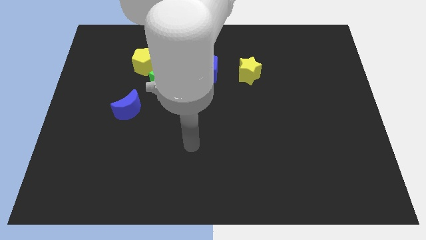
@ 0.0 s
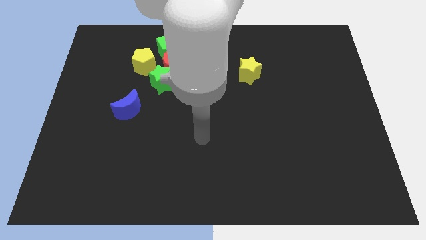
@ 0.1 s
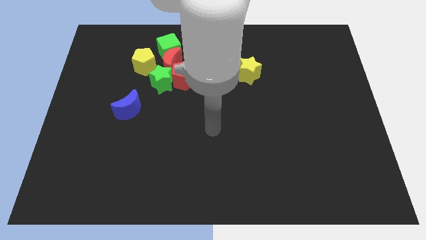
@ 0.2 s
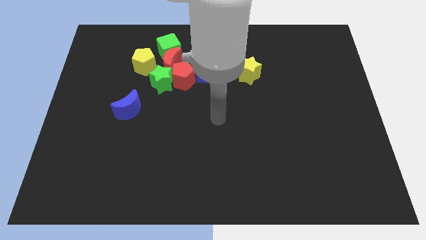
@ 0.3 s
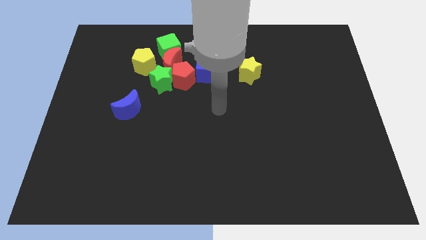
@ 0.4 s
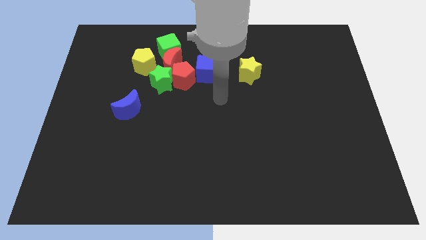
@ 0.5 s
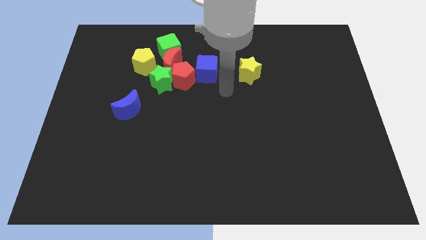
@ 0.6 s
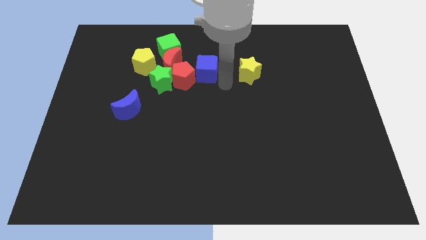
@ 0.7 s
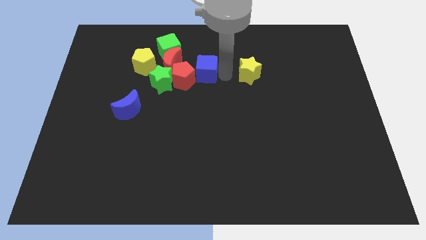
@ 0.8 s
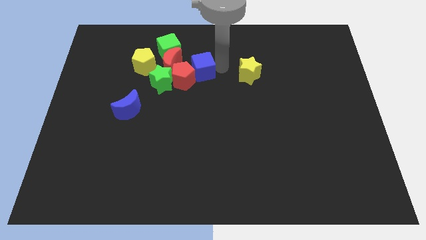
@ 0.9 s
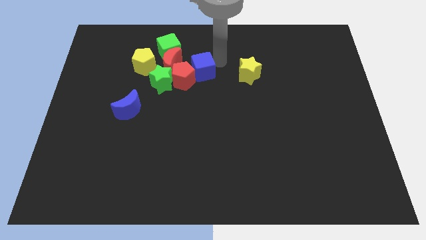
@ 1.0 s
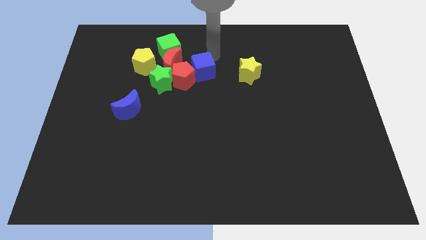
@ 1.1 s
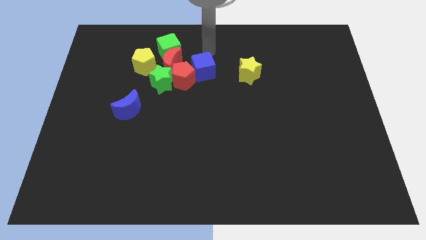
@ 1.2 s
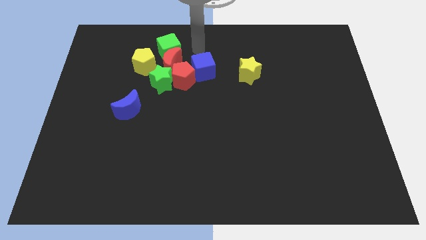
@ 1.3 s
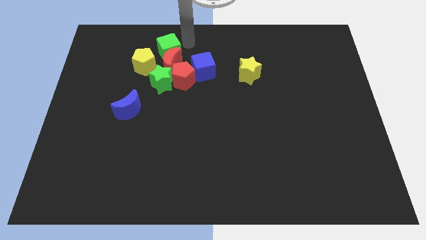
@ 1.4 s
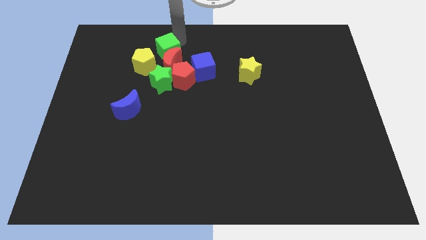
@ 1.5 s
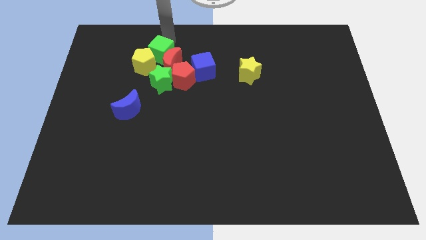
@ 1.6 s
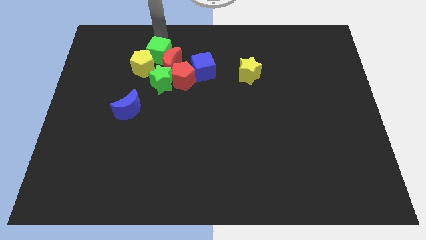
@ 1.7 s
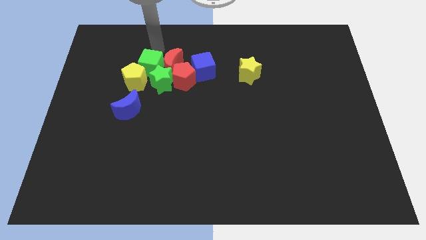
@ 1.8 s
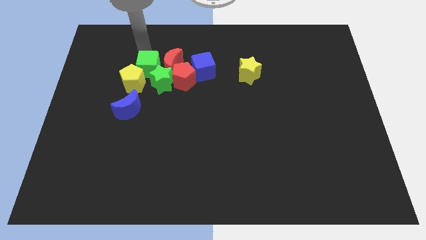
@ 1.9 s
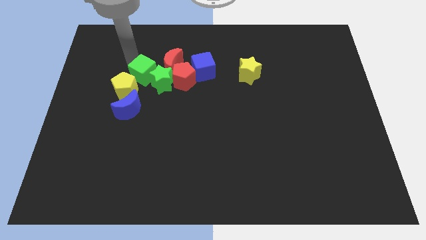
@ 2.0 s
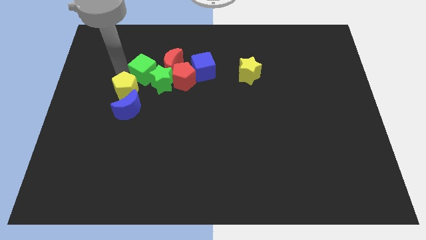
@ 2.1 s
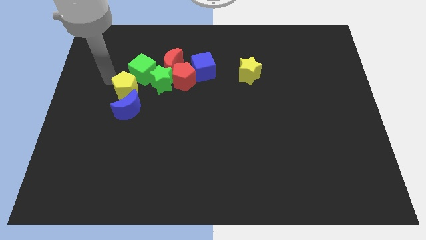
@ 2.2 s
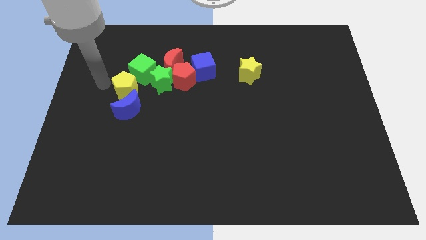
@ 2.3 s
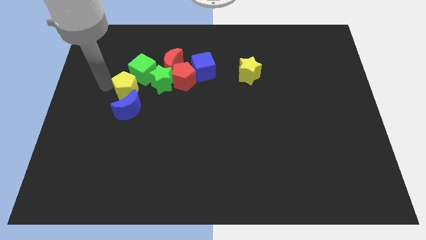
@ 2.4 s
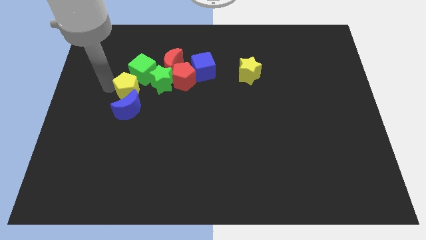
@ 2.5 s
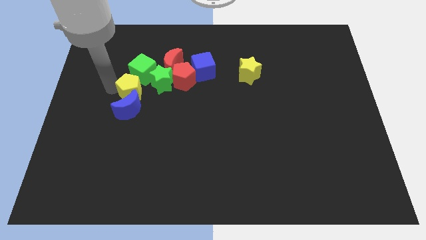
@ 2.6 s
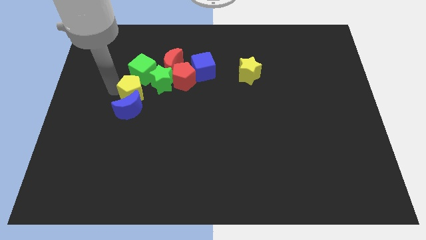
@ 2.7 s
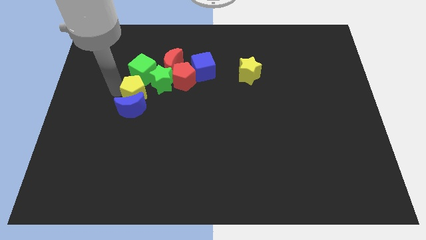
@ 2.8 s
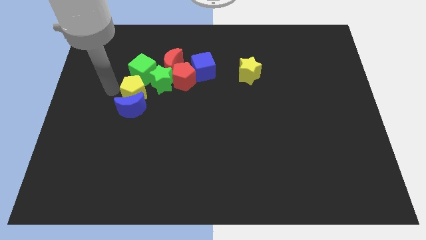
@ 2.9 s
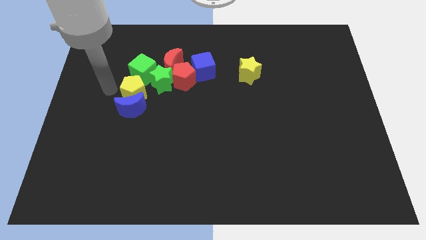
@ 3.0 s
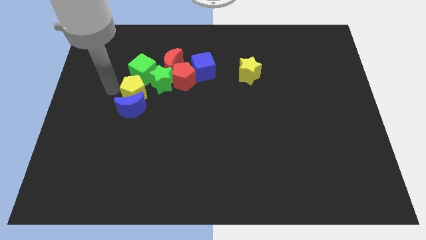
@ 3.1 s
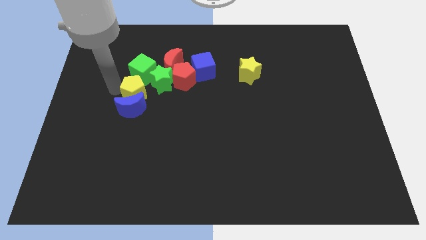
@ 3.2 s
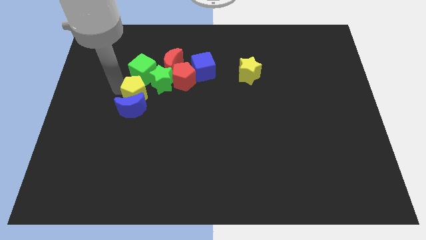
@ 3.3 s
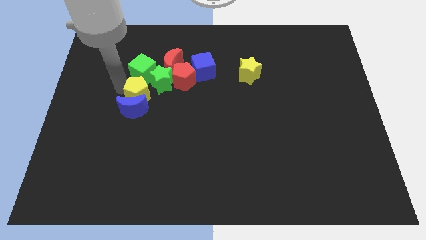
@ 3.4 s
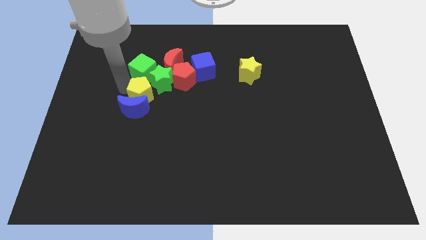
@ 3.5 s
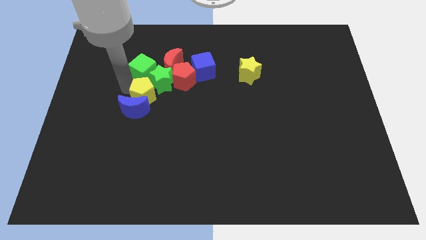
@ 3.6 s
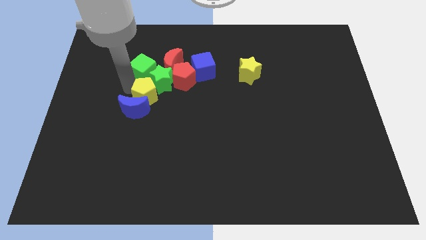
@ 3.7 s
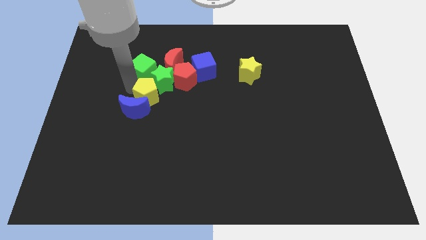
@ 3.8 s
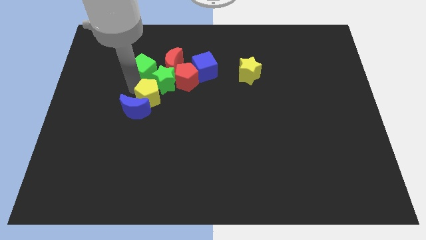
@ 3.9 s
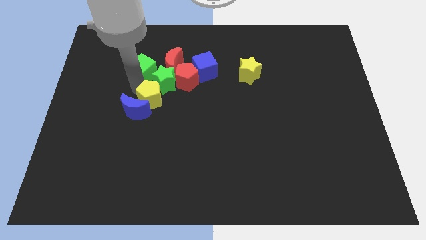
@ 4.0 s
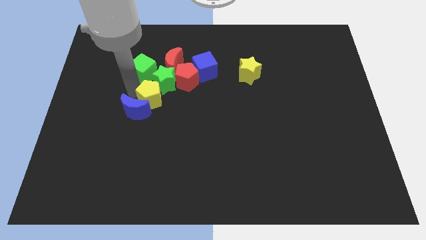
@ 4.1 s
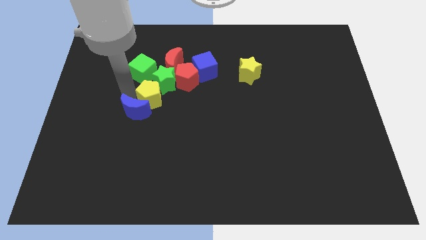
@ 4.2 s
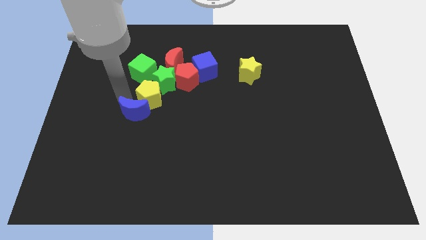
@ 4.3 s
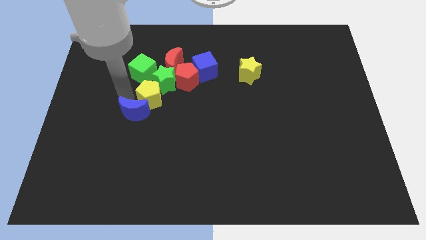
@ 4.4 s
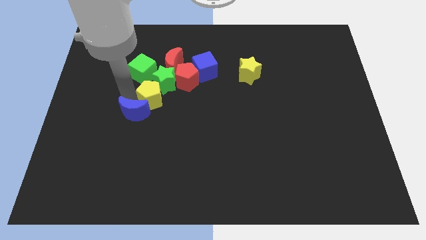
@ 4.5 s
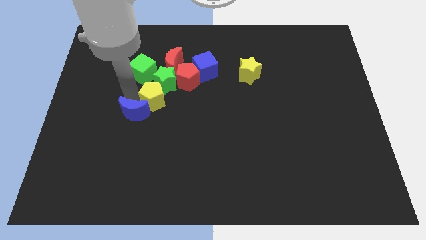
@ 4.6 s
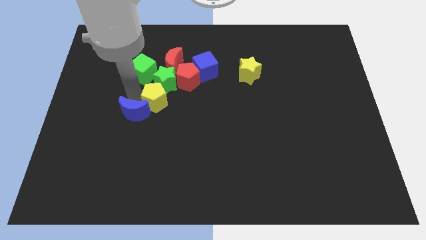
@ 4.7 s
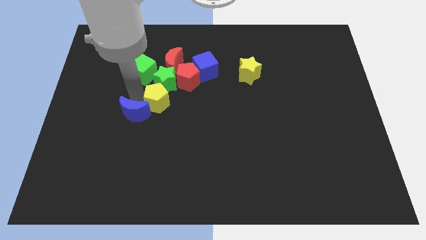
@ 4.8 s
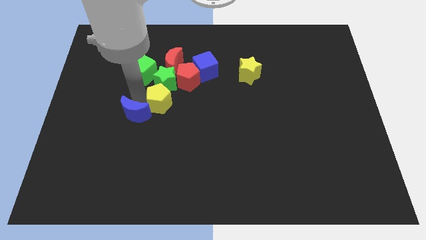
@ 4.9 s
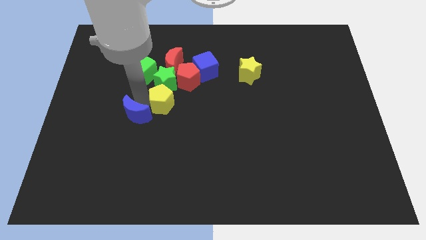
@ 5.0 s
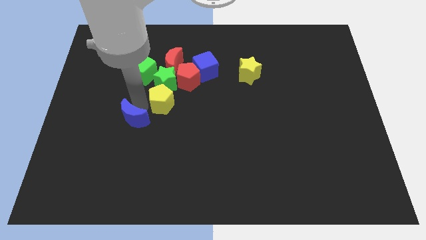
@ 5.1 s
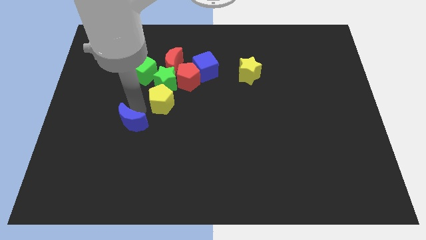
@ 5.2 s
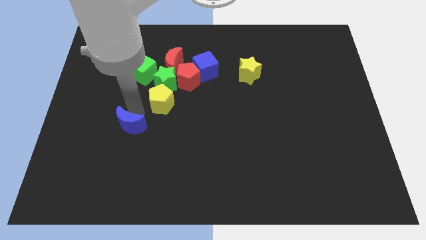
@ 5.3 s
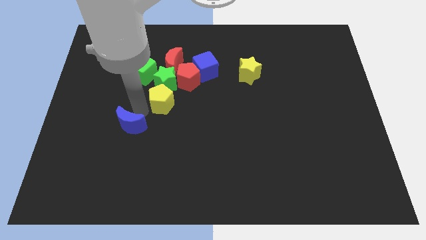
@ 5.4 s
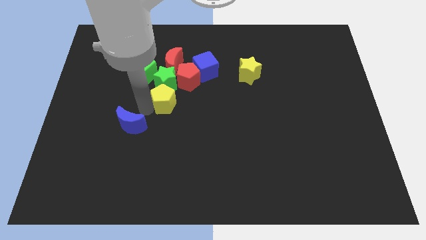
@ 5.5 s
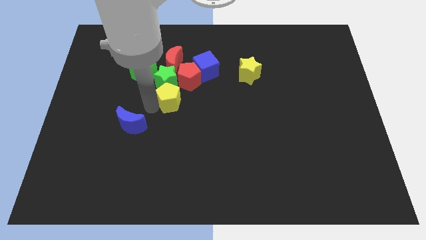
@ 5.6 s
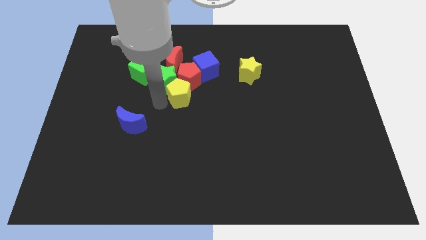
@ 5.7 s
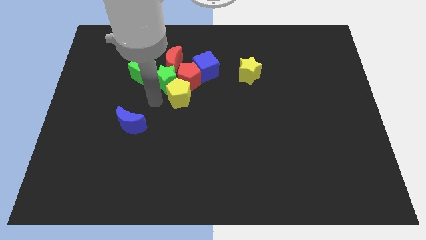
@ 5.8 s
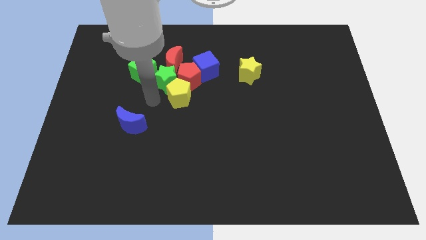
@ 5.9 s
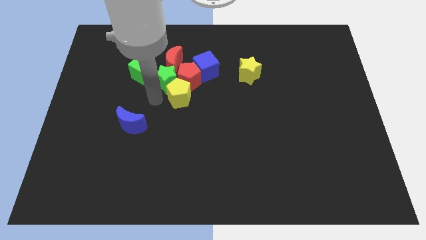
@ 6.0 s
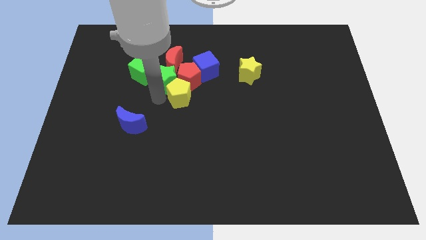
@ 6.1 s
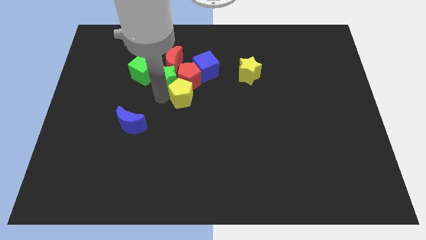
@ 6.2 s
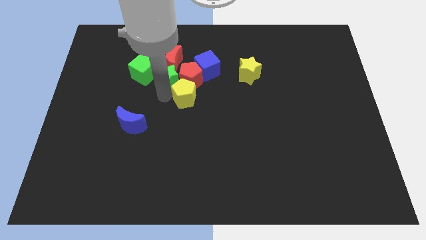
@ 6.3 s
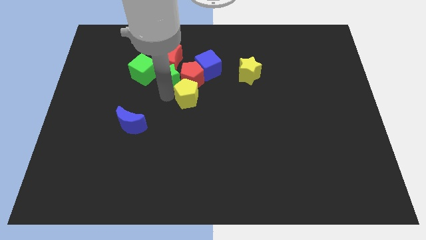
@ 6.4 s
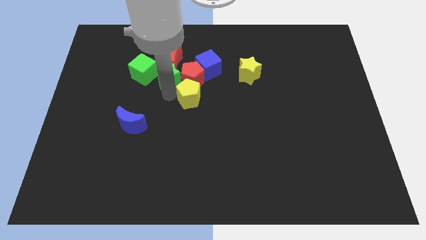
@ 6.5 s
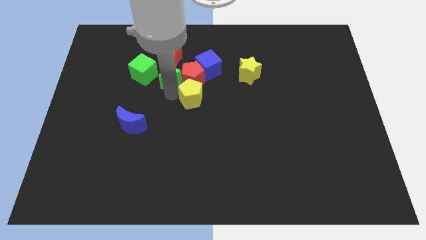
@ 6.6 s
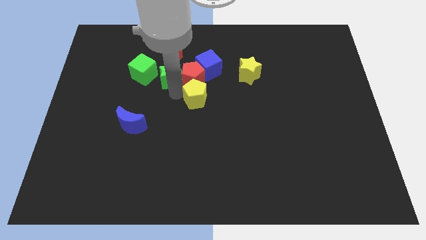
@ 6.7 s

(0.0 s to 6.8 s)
slightly push the yellow pentagon right

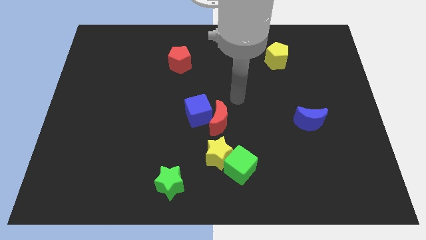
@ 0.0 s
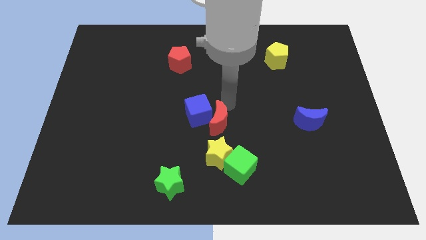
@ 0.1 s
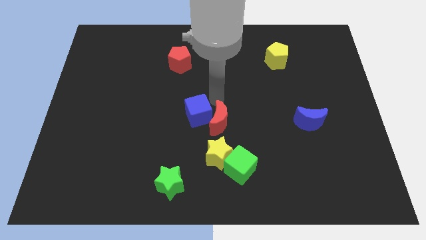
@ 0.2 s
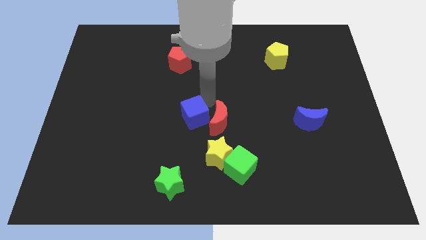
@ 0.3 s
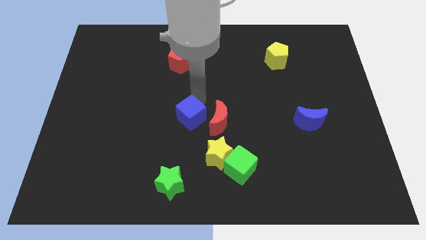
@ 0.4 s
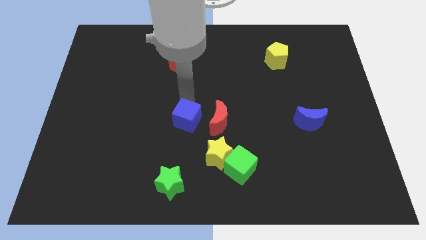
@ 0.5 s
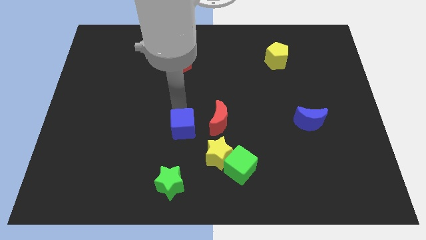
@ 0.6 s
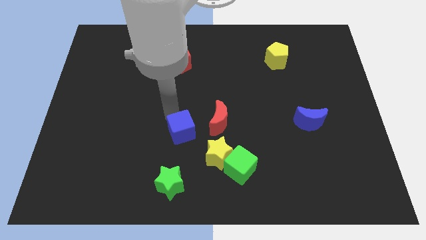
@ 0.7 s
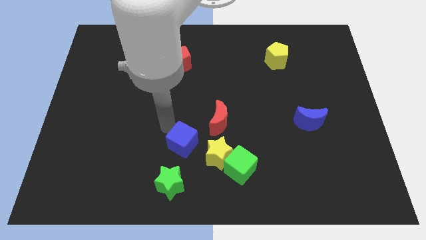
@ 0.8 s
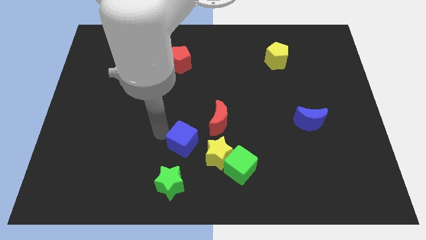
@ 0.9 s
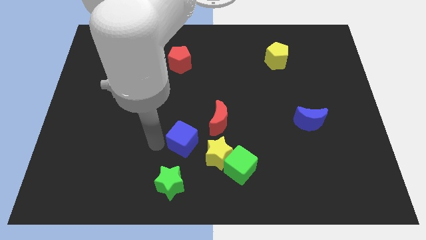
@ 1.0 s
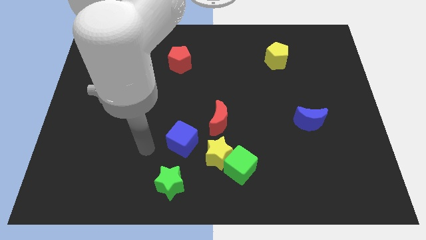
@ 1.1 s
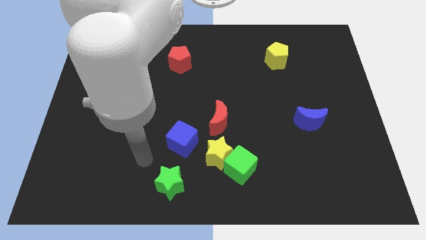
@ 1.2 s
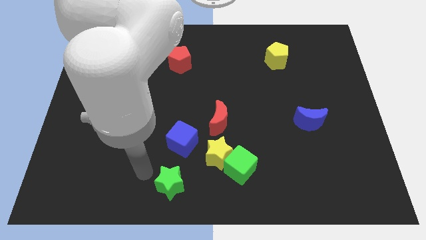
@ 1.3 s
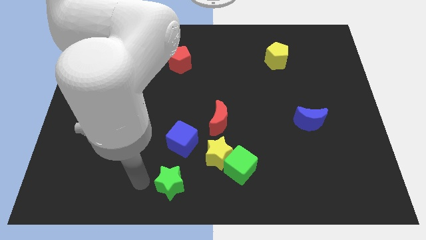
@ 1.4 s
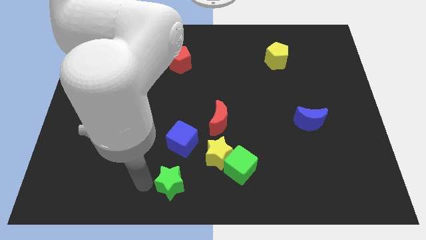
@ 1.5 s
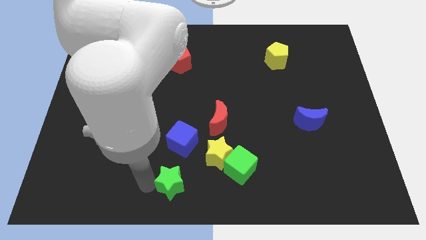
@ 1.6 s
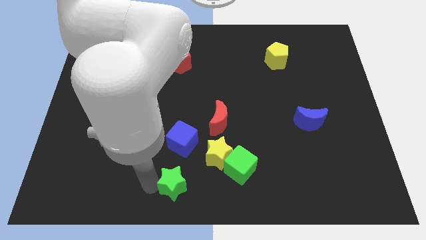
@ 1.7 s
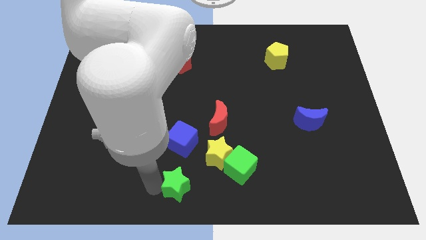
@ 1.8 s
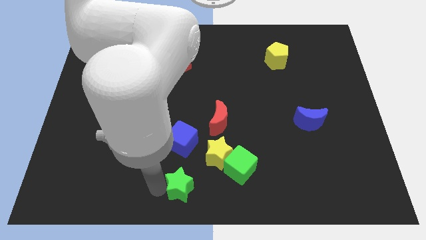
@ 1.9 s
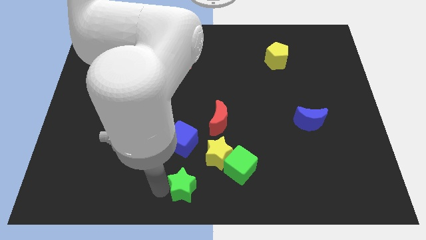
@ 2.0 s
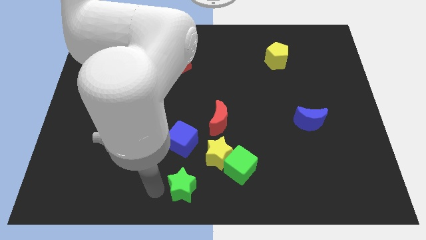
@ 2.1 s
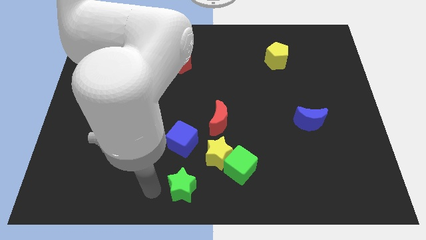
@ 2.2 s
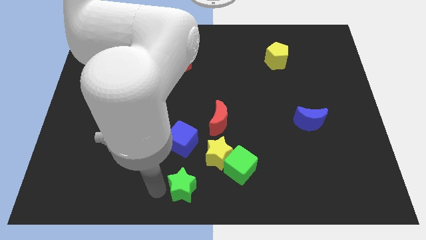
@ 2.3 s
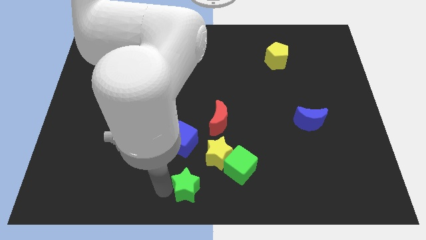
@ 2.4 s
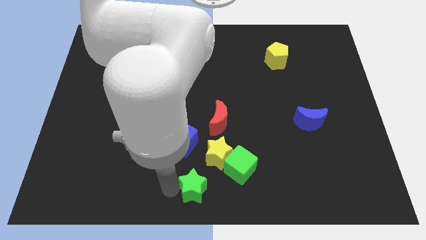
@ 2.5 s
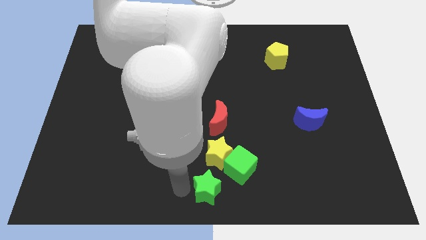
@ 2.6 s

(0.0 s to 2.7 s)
slightly push the green star right
